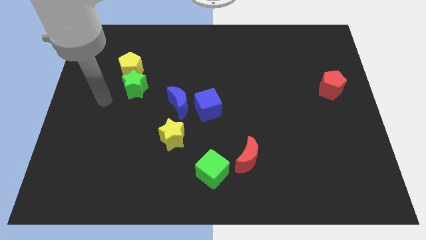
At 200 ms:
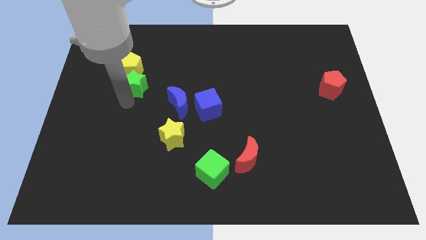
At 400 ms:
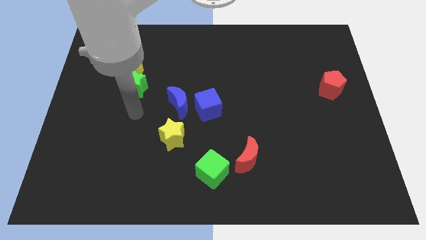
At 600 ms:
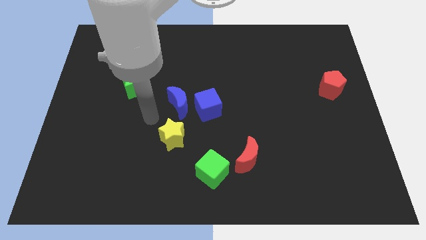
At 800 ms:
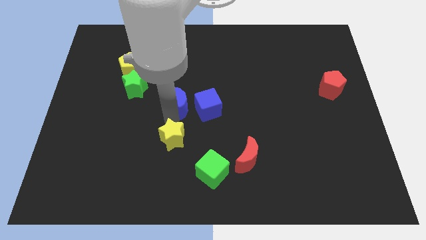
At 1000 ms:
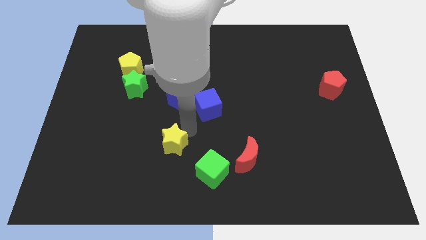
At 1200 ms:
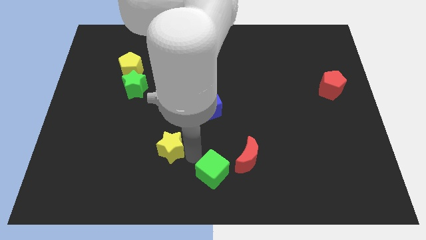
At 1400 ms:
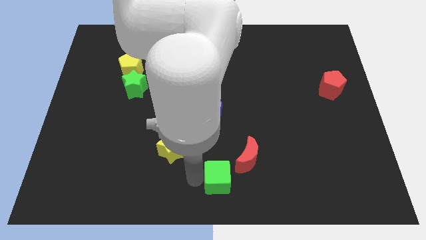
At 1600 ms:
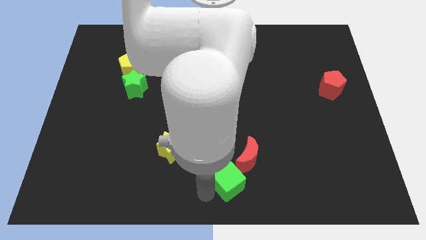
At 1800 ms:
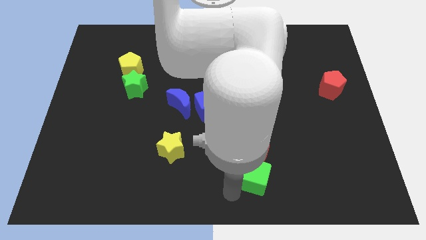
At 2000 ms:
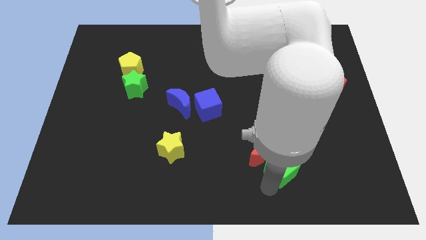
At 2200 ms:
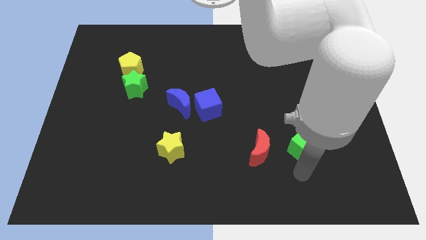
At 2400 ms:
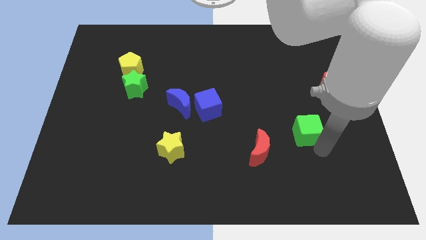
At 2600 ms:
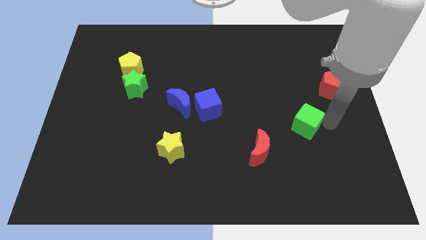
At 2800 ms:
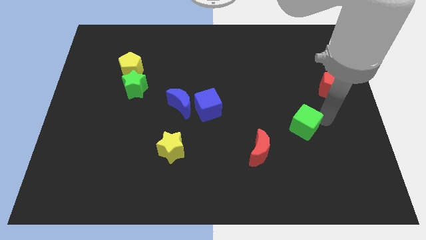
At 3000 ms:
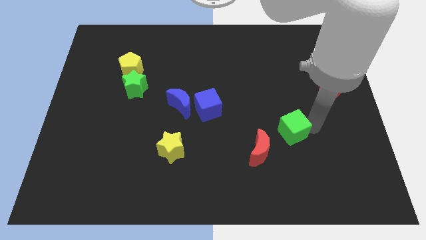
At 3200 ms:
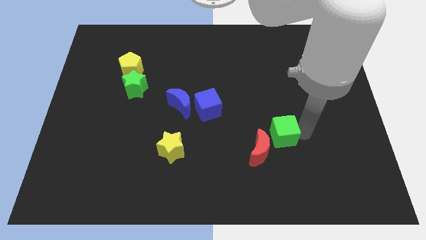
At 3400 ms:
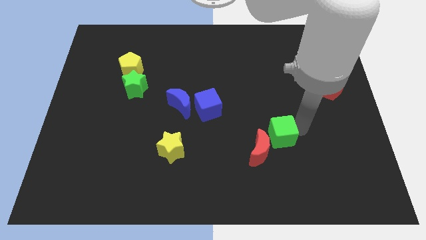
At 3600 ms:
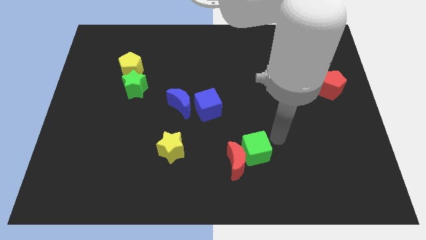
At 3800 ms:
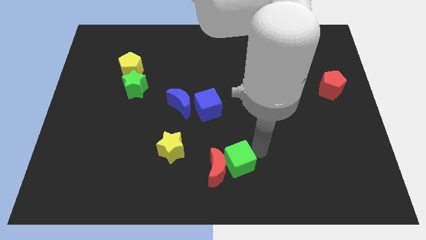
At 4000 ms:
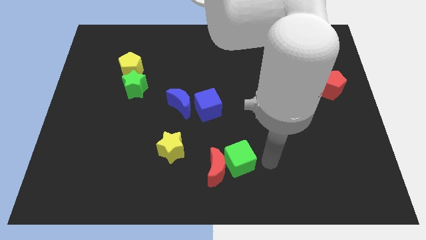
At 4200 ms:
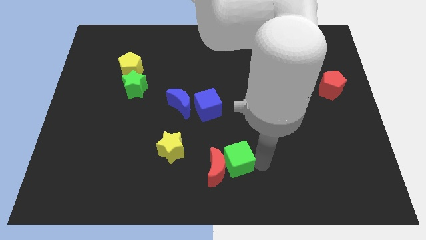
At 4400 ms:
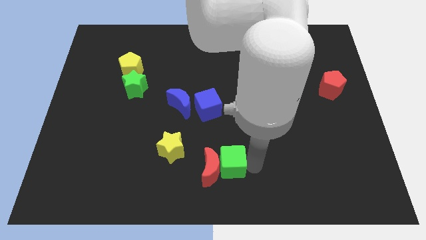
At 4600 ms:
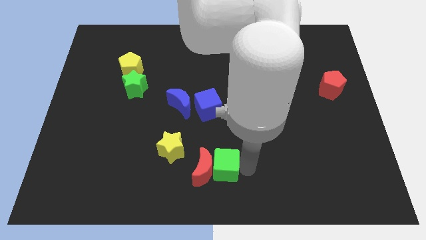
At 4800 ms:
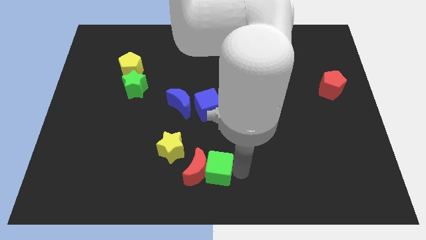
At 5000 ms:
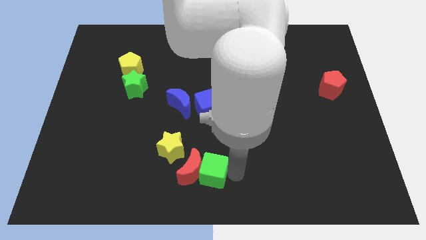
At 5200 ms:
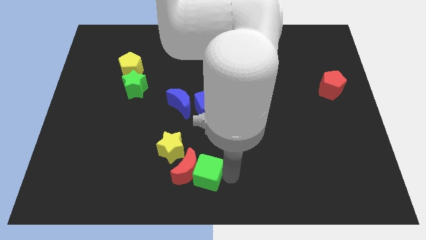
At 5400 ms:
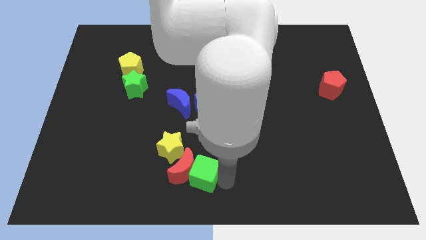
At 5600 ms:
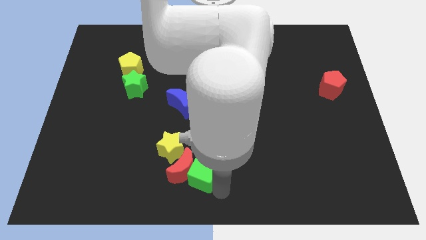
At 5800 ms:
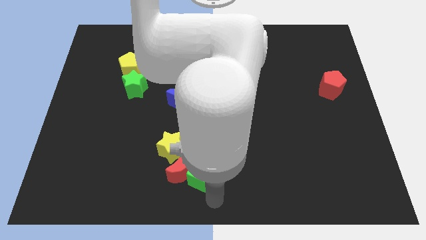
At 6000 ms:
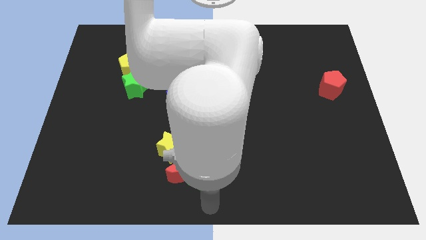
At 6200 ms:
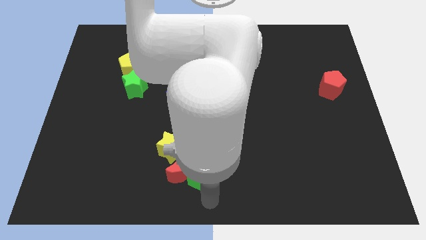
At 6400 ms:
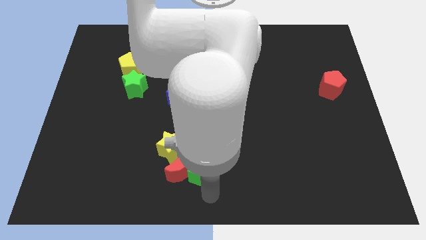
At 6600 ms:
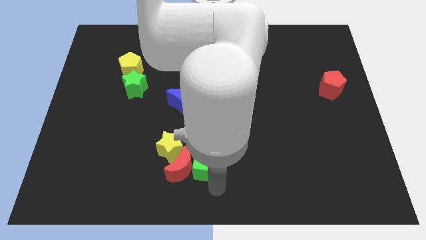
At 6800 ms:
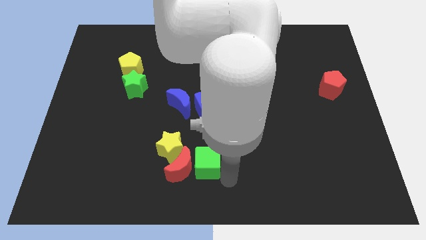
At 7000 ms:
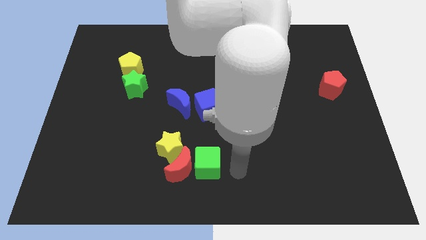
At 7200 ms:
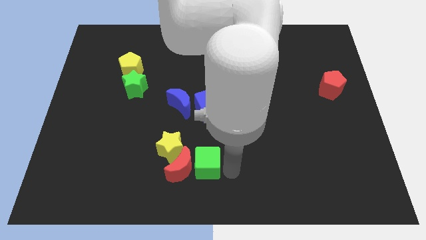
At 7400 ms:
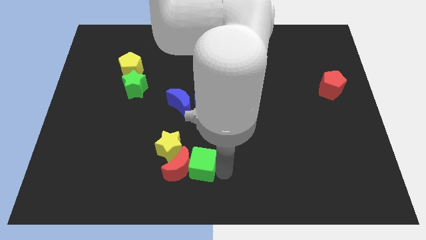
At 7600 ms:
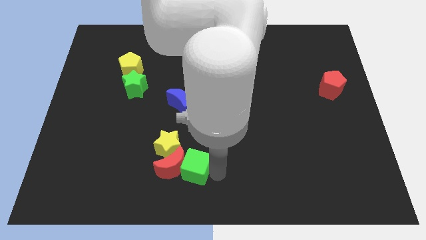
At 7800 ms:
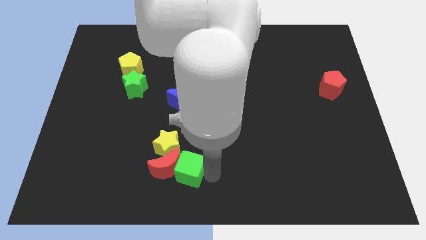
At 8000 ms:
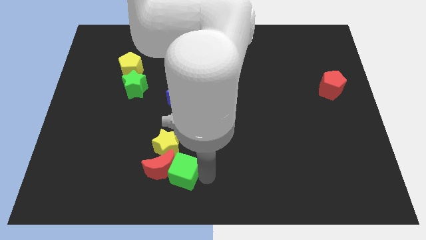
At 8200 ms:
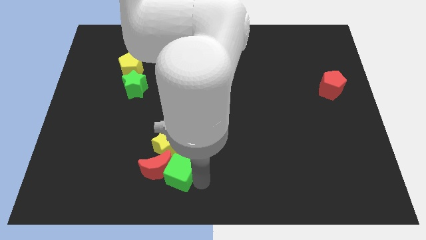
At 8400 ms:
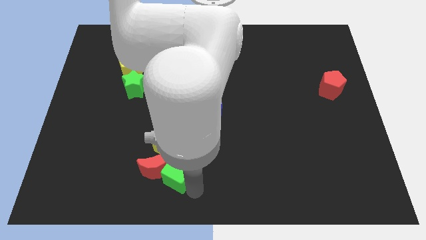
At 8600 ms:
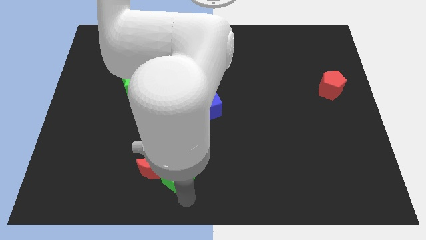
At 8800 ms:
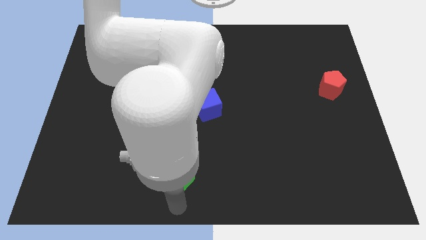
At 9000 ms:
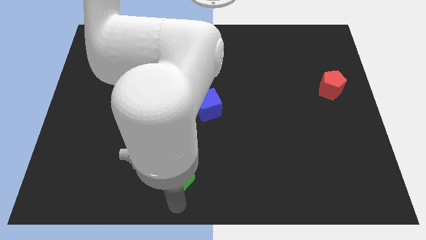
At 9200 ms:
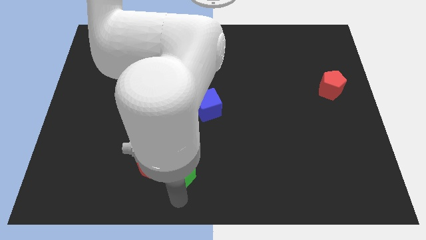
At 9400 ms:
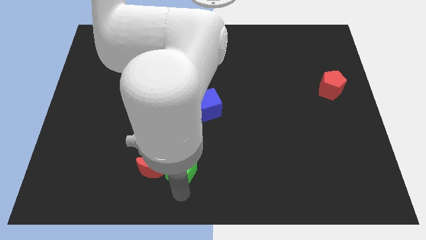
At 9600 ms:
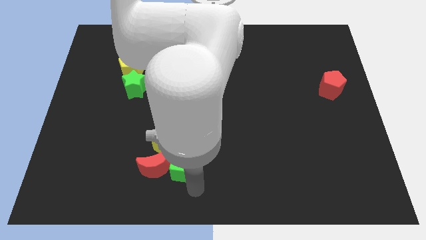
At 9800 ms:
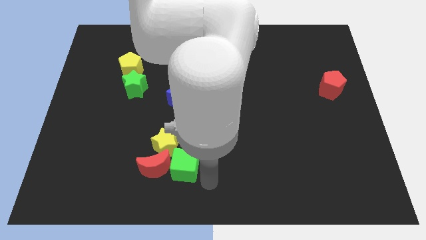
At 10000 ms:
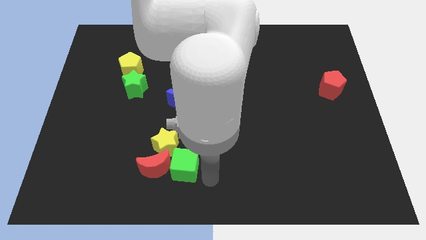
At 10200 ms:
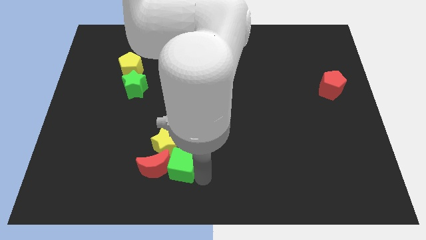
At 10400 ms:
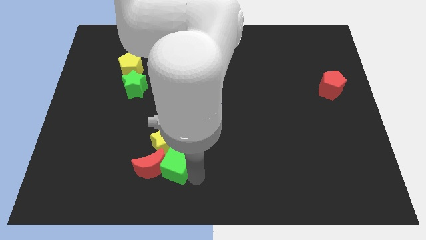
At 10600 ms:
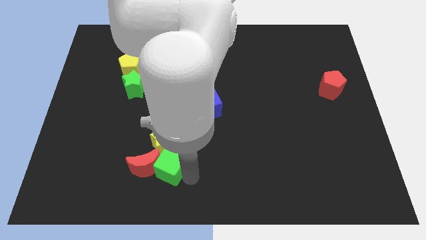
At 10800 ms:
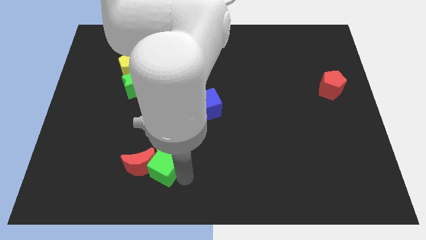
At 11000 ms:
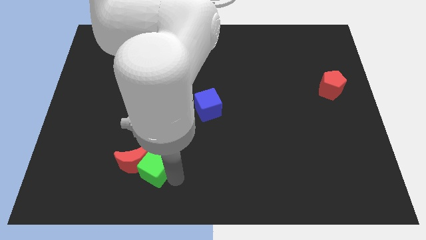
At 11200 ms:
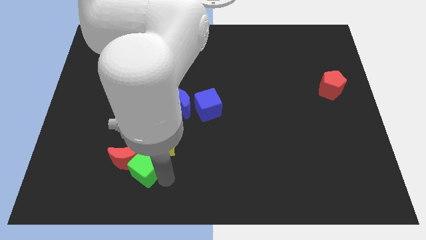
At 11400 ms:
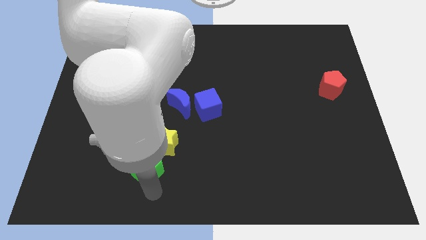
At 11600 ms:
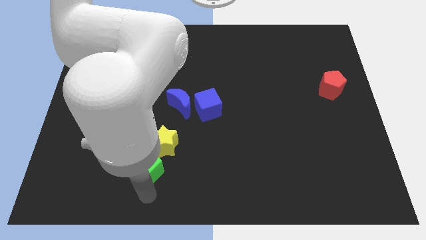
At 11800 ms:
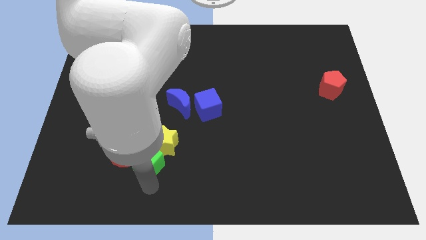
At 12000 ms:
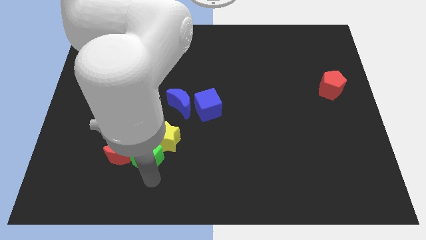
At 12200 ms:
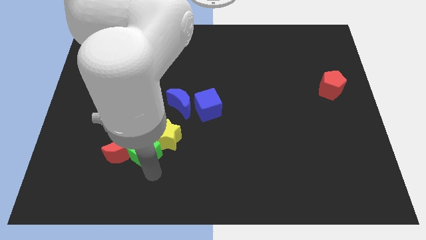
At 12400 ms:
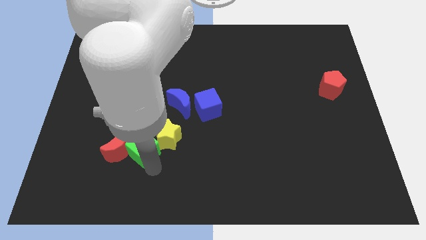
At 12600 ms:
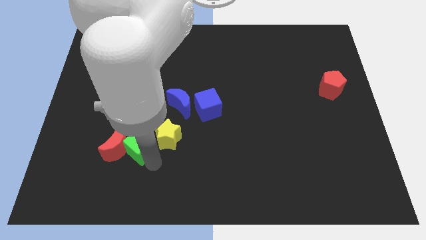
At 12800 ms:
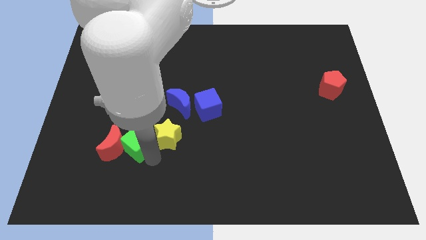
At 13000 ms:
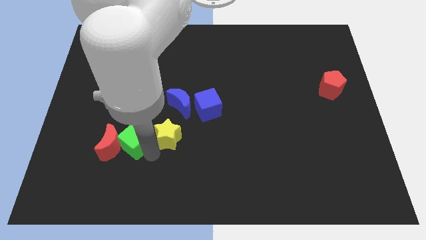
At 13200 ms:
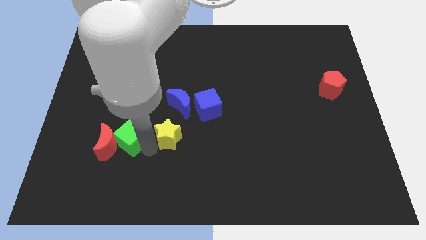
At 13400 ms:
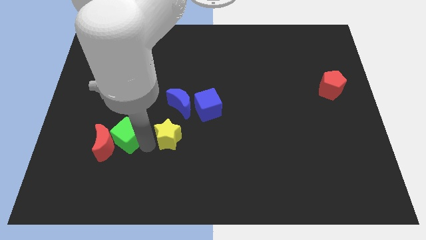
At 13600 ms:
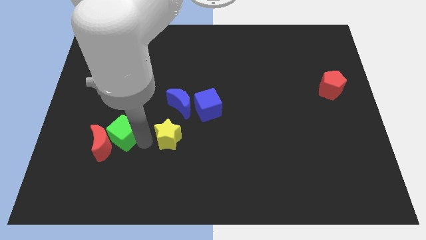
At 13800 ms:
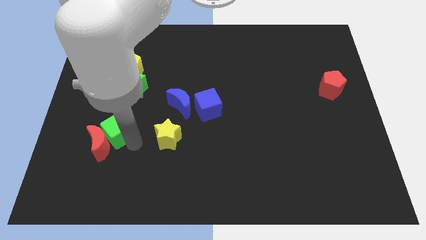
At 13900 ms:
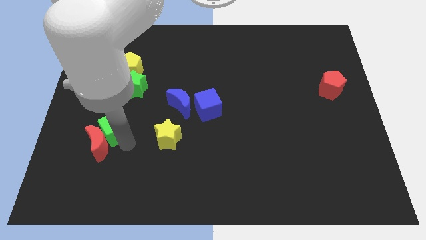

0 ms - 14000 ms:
move the green cube upwards and to the left diagonally

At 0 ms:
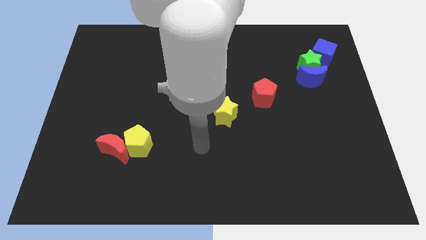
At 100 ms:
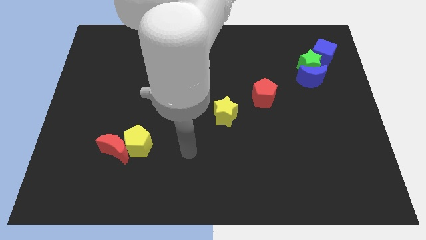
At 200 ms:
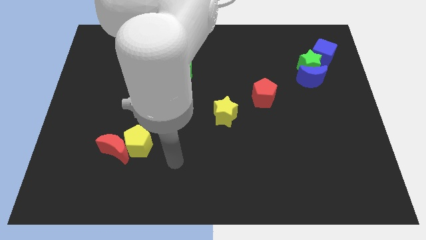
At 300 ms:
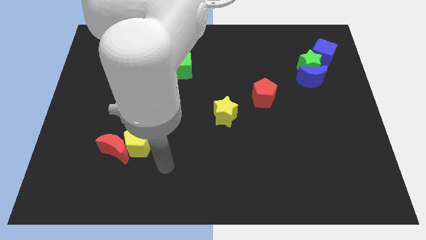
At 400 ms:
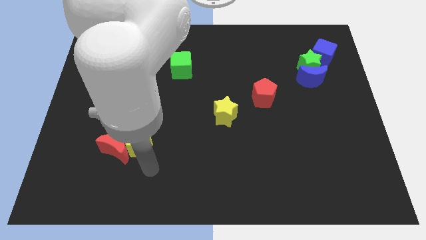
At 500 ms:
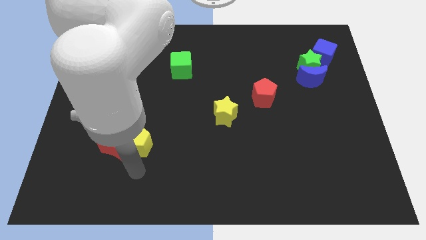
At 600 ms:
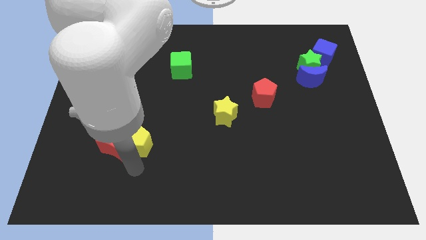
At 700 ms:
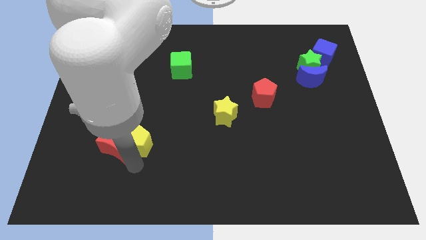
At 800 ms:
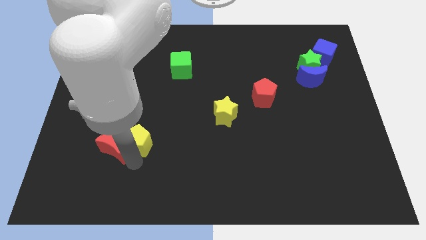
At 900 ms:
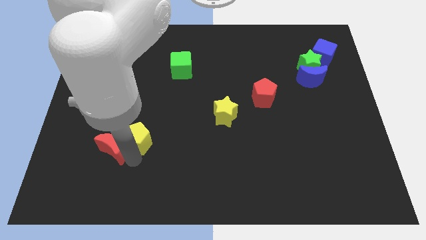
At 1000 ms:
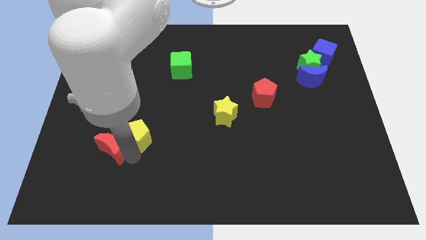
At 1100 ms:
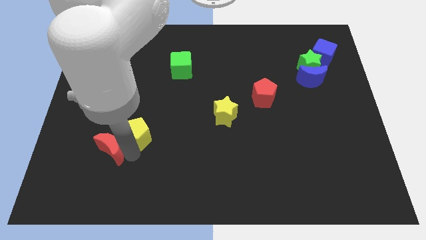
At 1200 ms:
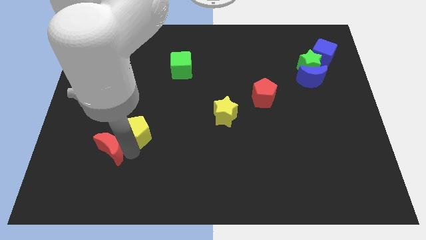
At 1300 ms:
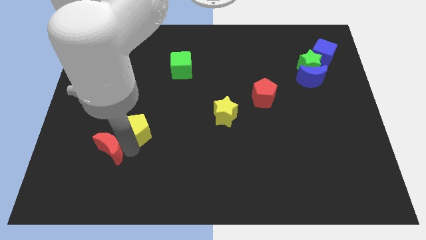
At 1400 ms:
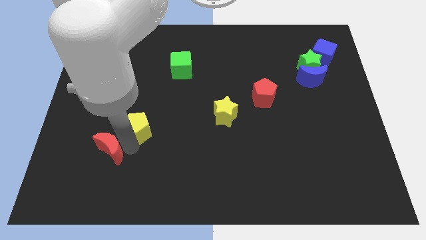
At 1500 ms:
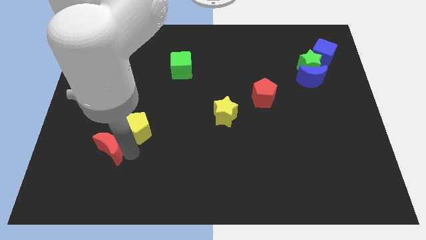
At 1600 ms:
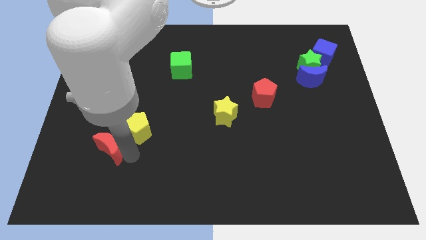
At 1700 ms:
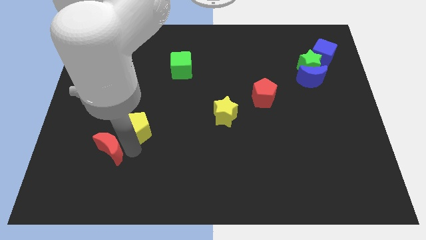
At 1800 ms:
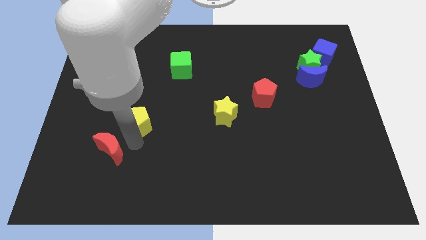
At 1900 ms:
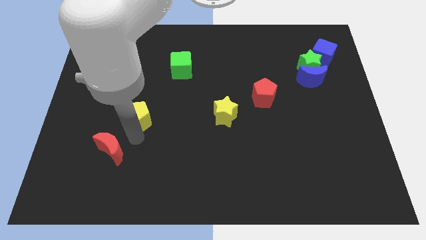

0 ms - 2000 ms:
move the yellow pentagon a bit up
